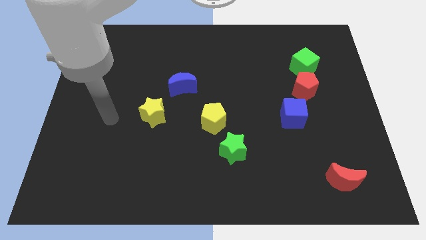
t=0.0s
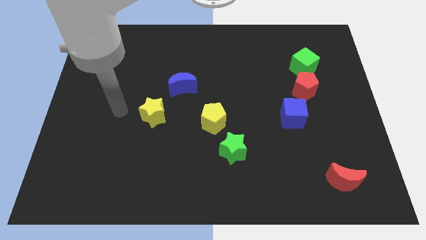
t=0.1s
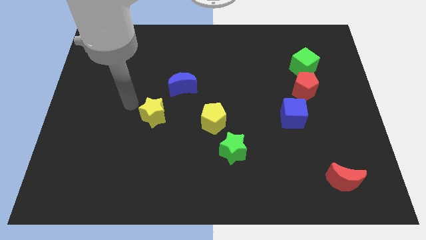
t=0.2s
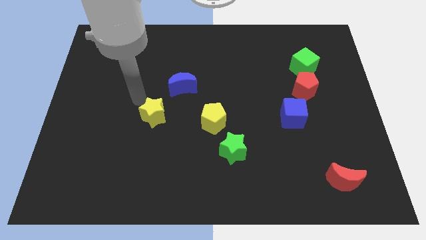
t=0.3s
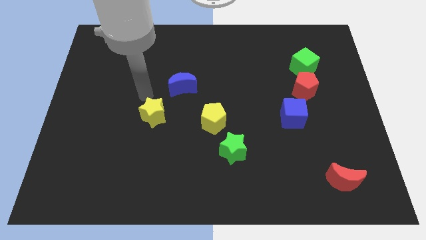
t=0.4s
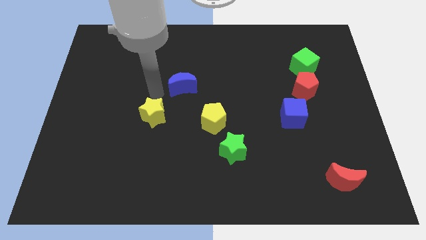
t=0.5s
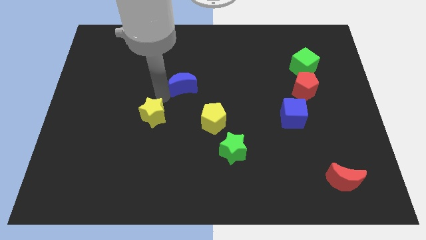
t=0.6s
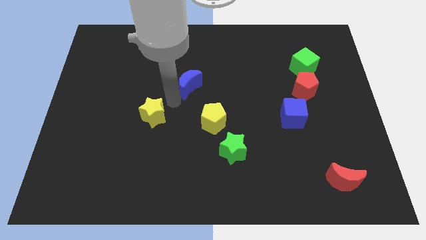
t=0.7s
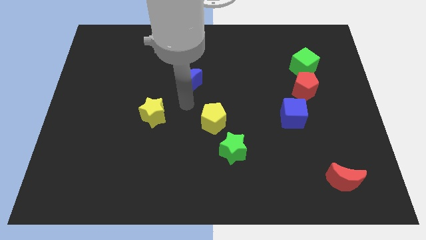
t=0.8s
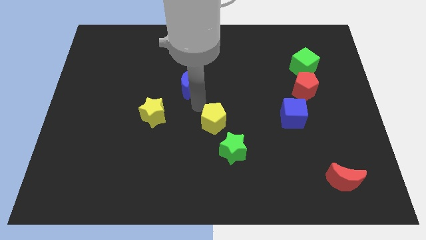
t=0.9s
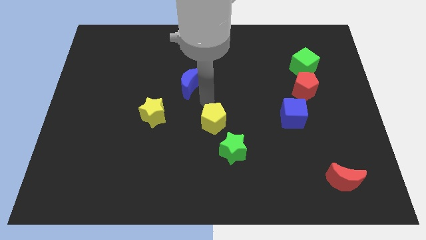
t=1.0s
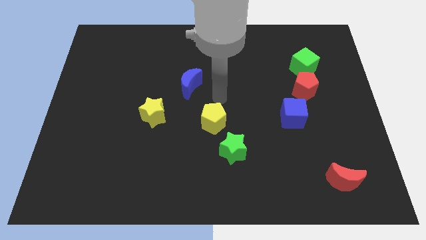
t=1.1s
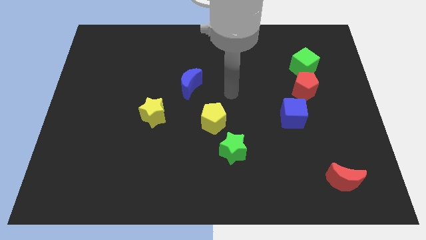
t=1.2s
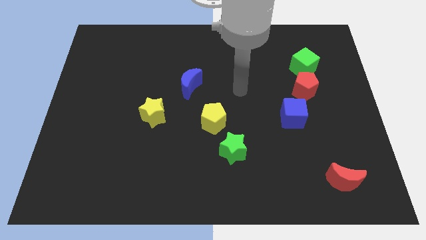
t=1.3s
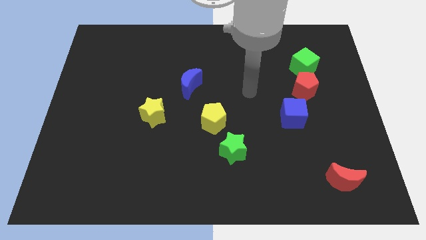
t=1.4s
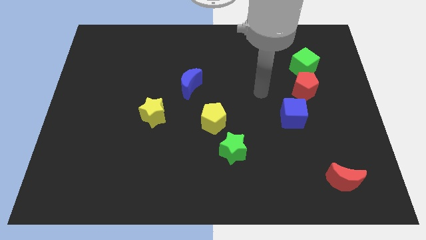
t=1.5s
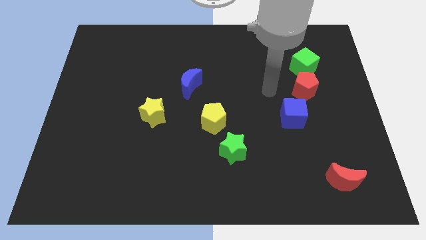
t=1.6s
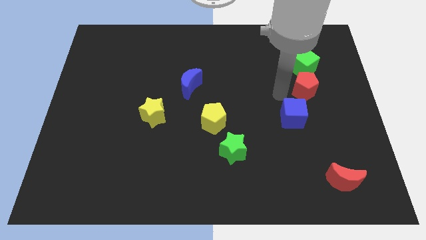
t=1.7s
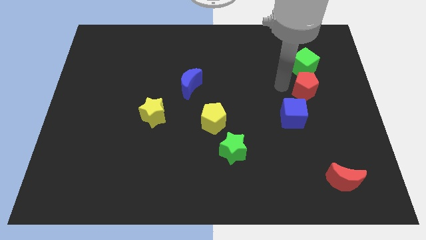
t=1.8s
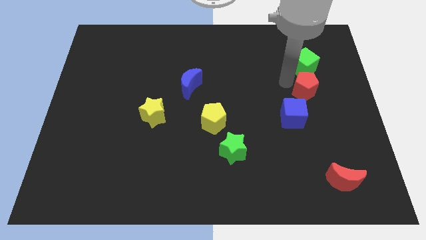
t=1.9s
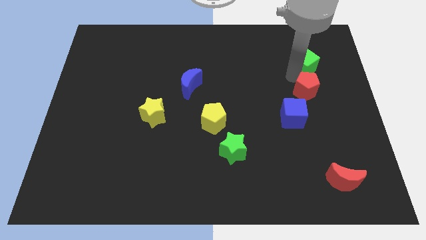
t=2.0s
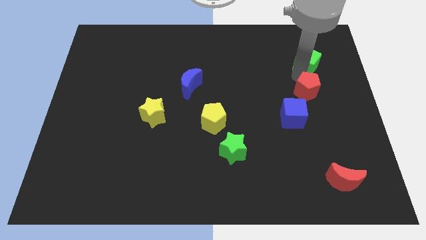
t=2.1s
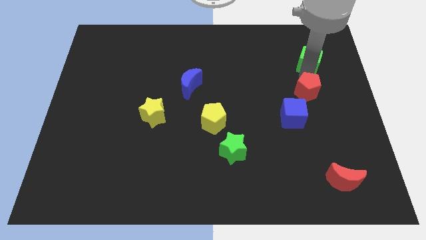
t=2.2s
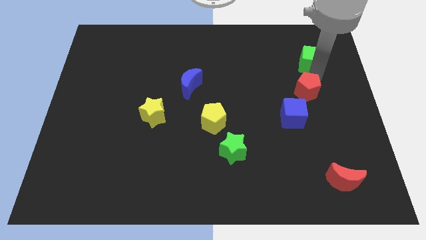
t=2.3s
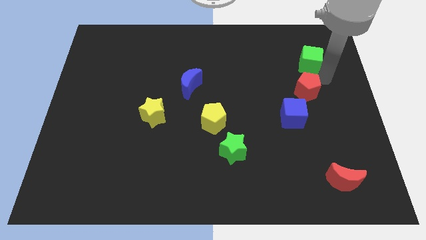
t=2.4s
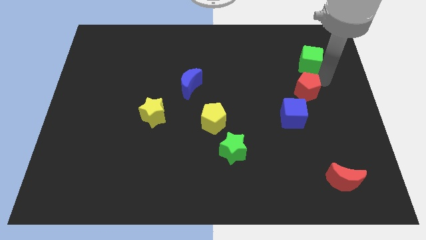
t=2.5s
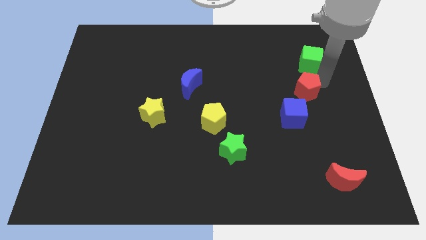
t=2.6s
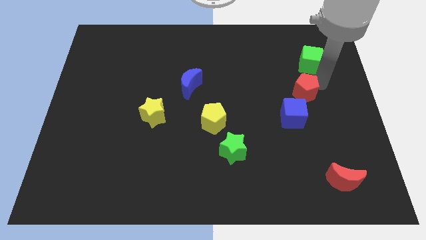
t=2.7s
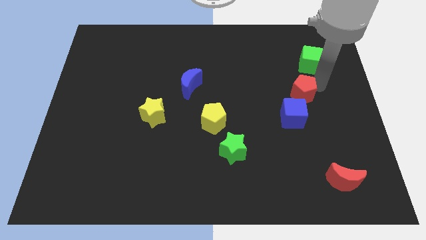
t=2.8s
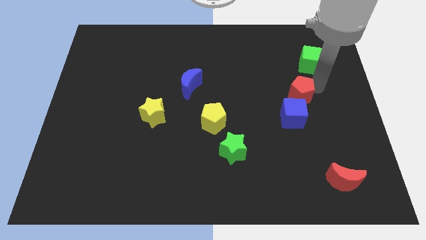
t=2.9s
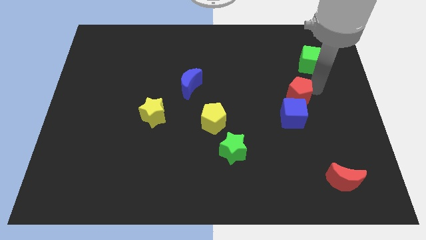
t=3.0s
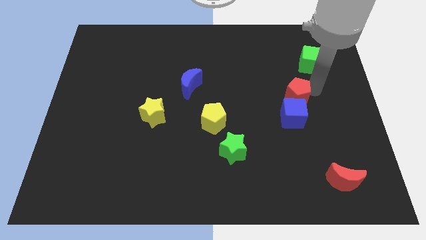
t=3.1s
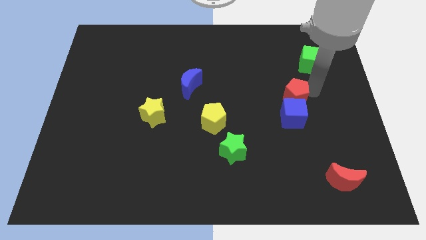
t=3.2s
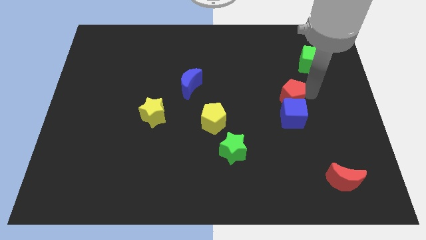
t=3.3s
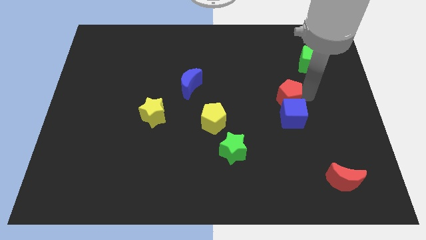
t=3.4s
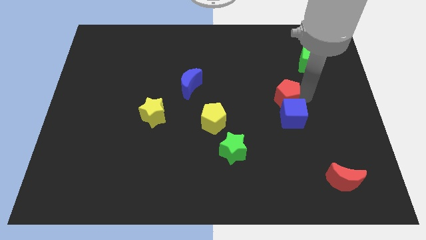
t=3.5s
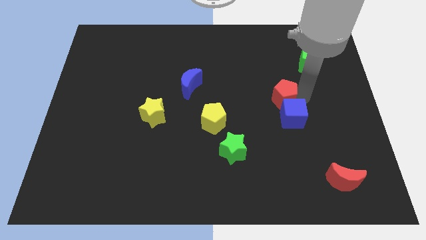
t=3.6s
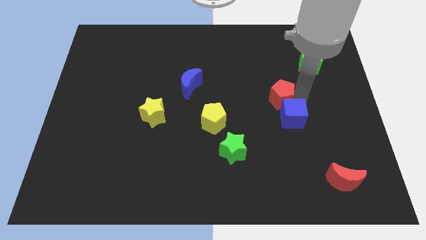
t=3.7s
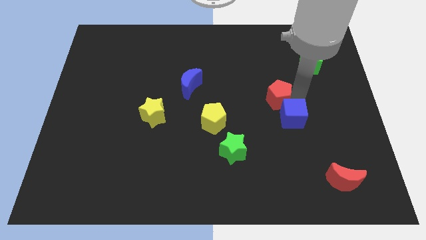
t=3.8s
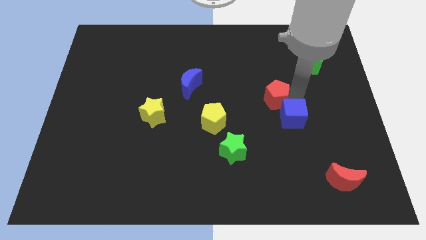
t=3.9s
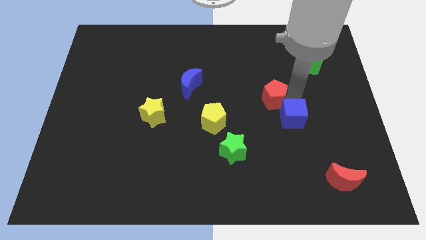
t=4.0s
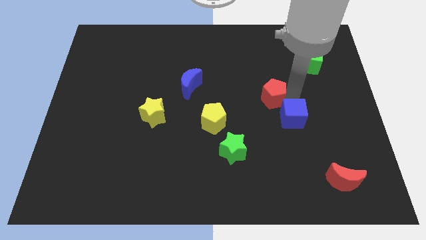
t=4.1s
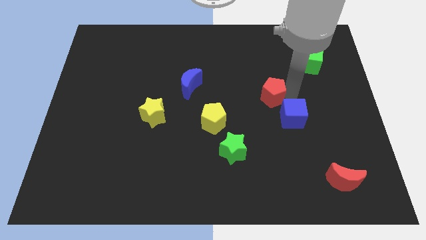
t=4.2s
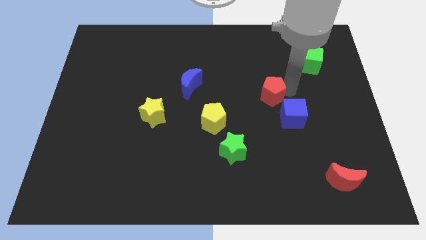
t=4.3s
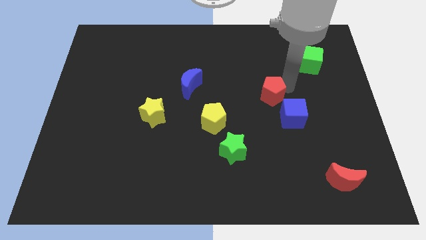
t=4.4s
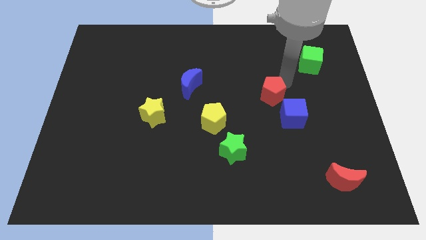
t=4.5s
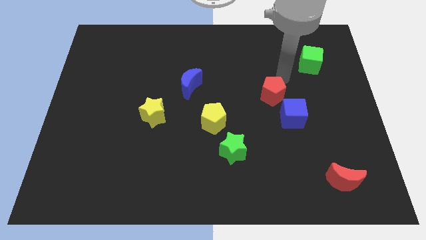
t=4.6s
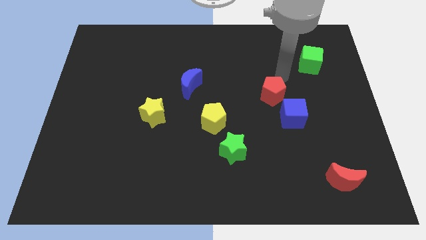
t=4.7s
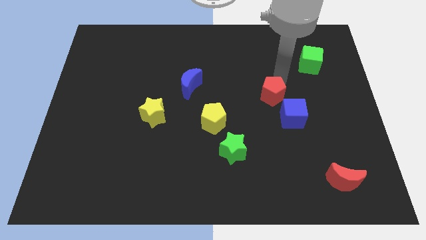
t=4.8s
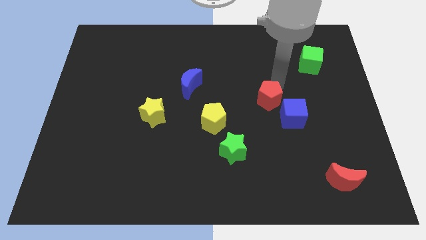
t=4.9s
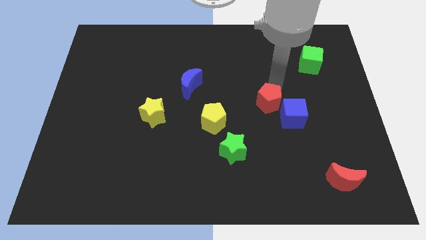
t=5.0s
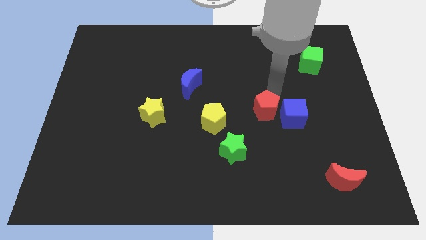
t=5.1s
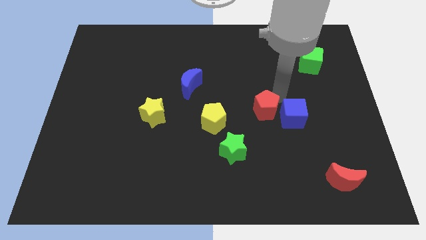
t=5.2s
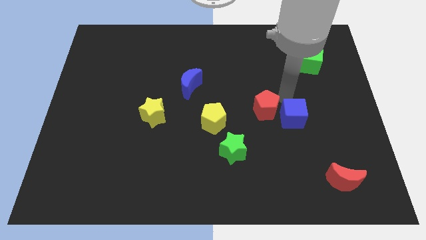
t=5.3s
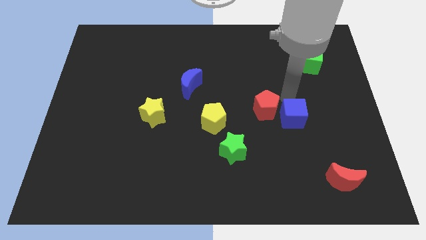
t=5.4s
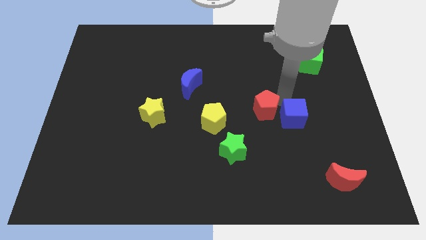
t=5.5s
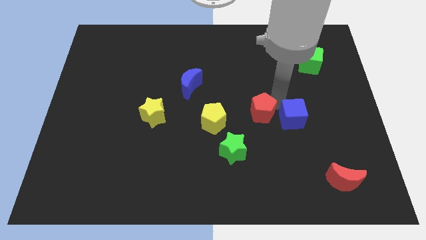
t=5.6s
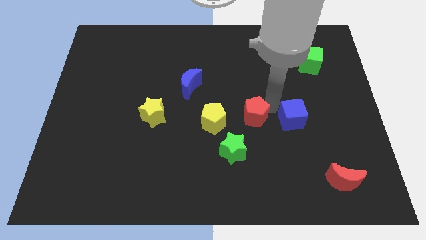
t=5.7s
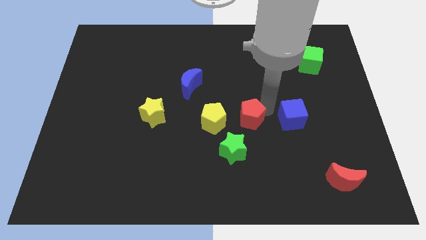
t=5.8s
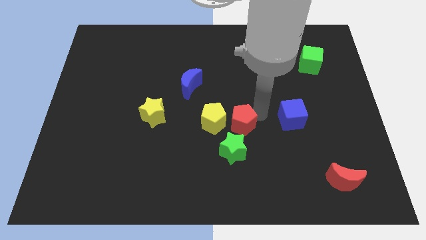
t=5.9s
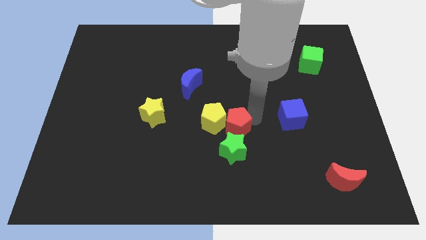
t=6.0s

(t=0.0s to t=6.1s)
move the red pentagon to the yellow pentagon

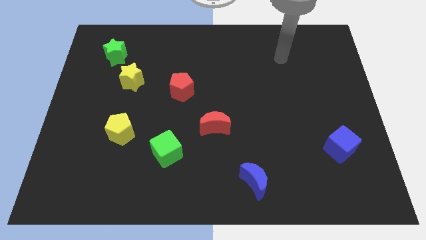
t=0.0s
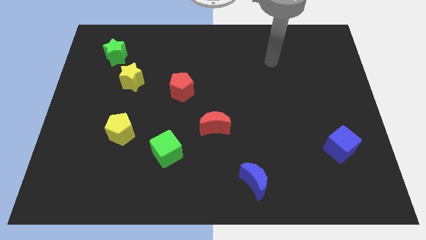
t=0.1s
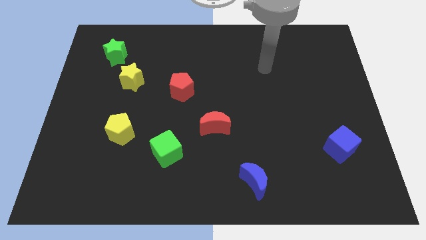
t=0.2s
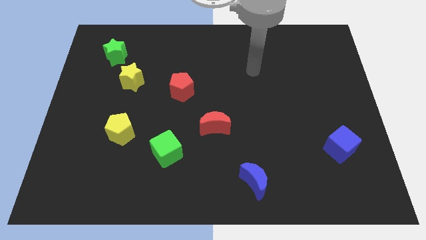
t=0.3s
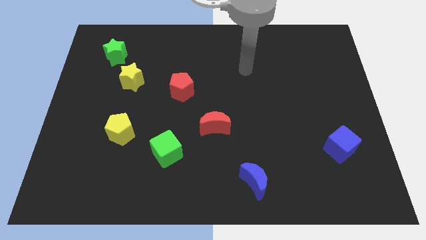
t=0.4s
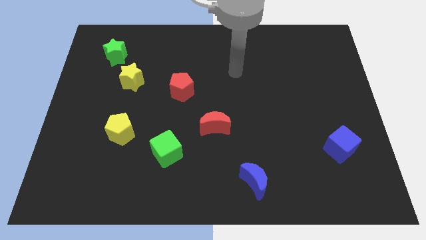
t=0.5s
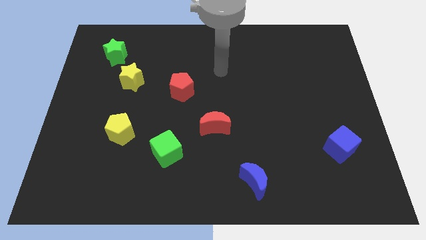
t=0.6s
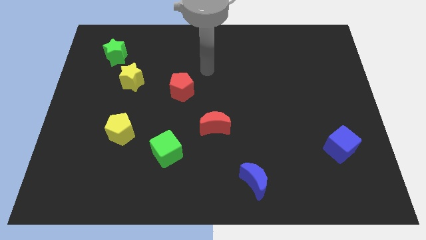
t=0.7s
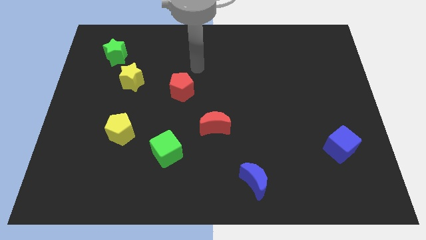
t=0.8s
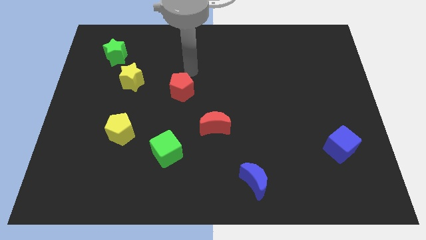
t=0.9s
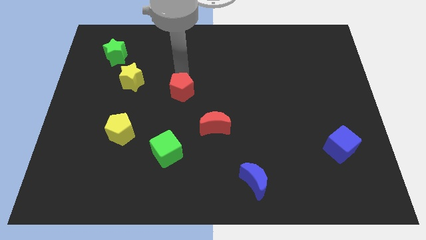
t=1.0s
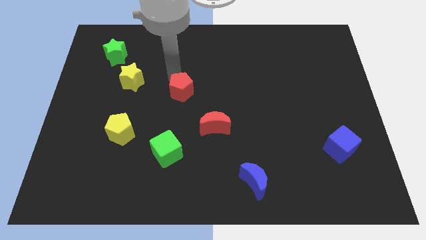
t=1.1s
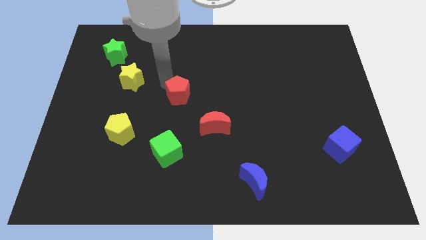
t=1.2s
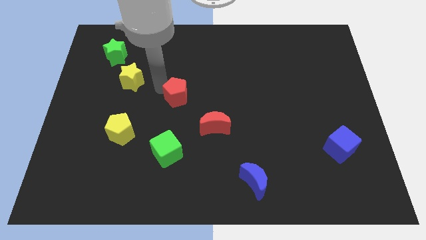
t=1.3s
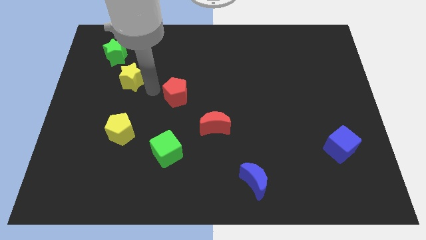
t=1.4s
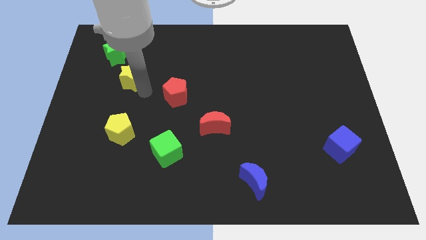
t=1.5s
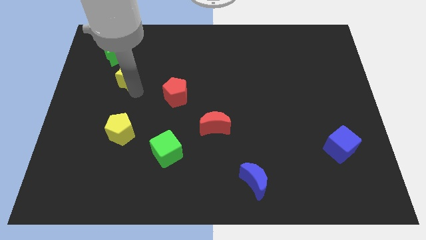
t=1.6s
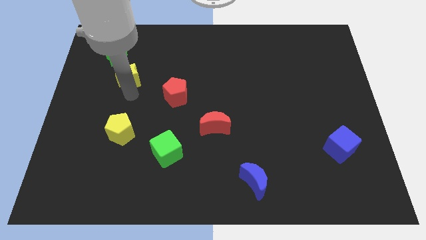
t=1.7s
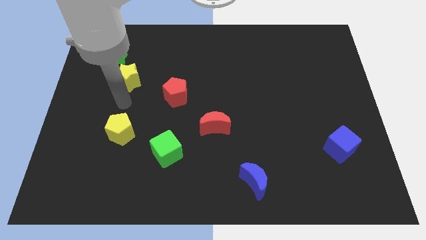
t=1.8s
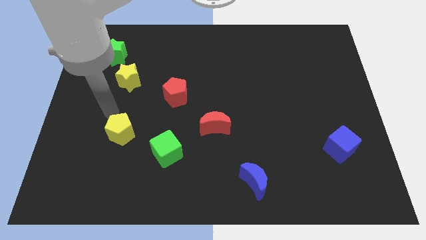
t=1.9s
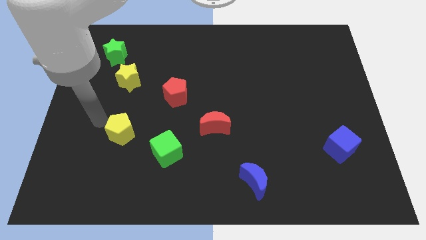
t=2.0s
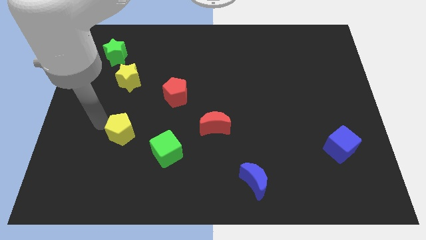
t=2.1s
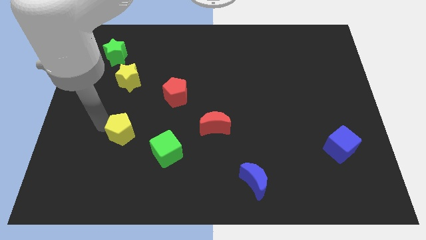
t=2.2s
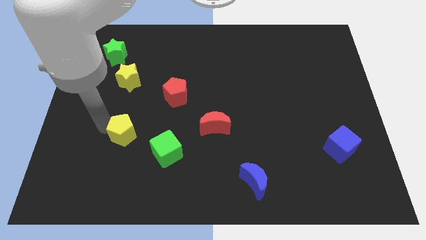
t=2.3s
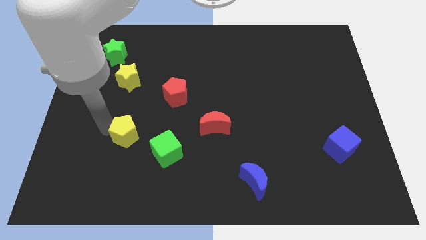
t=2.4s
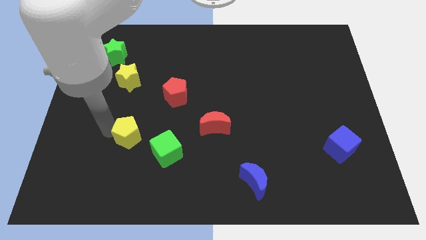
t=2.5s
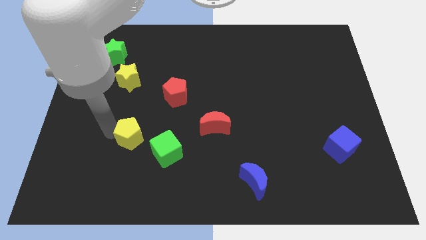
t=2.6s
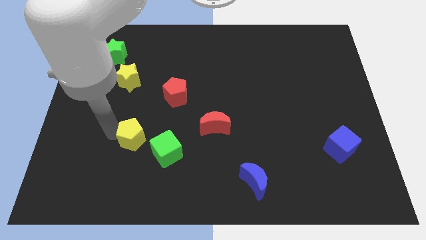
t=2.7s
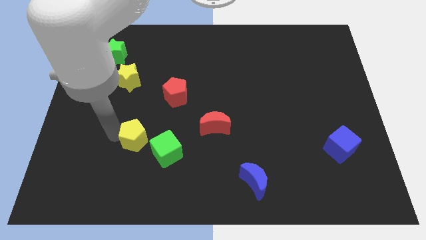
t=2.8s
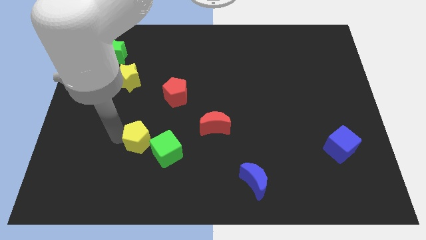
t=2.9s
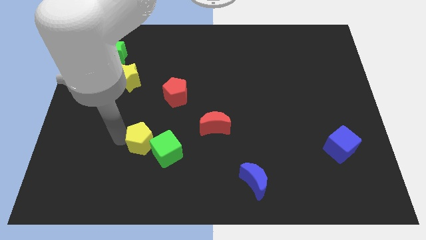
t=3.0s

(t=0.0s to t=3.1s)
move the yellow pentagon next to the green cube
